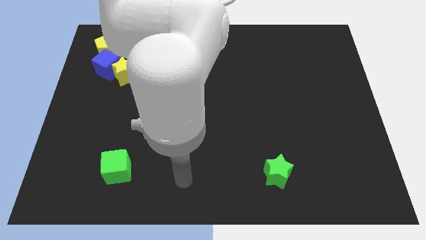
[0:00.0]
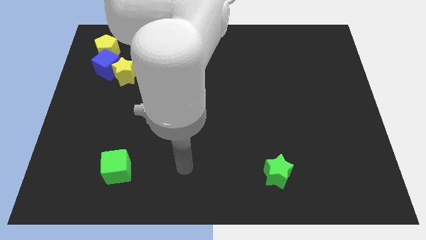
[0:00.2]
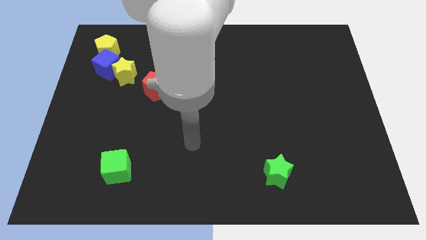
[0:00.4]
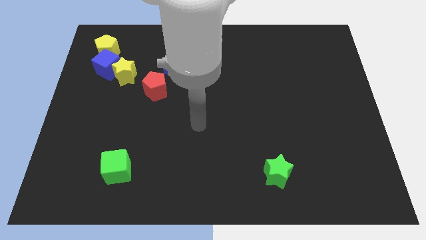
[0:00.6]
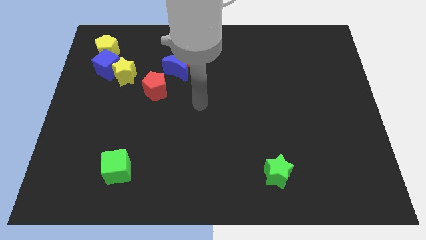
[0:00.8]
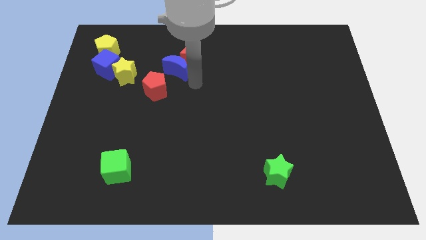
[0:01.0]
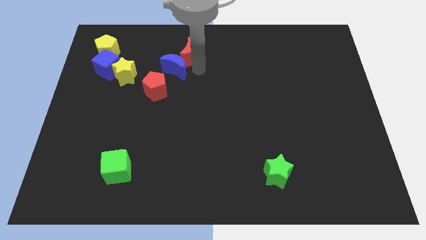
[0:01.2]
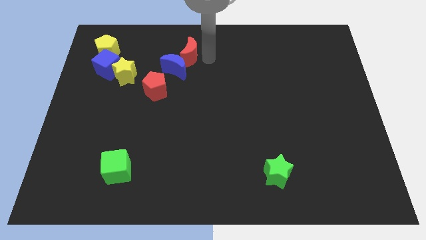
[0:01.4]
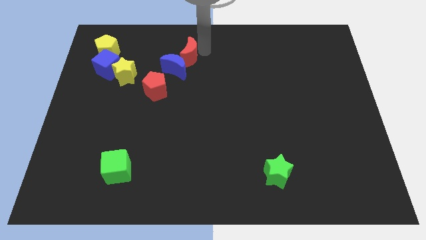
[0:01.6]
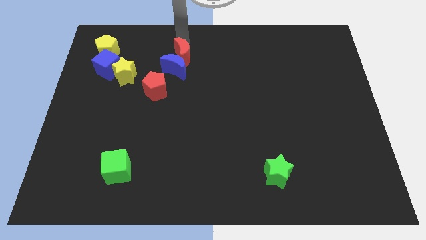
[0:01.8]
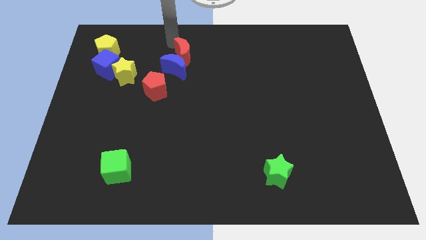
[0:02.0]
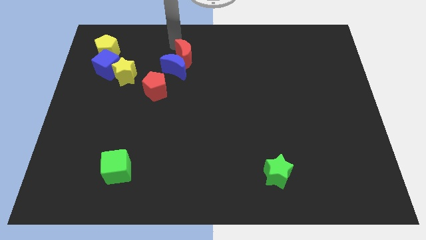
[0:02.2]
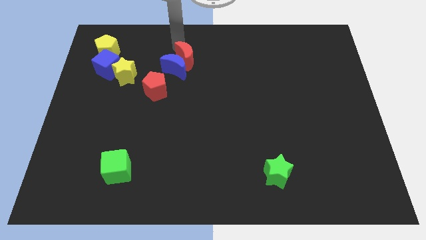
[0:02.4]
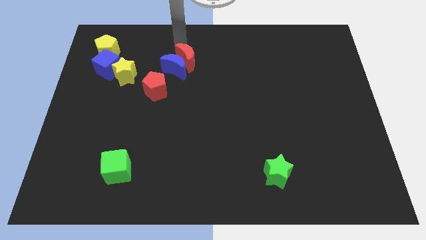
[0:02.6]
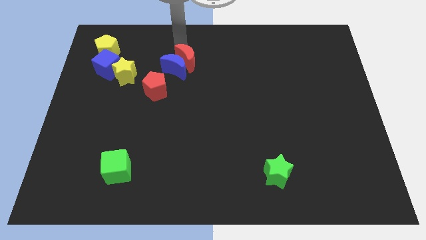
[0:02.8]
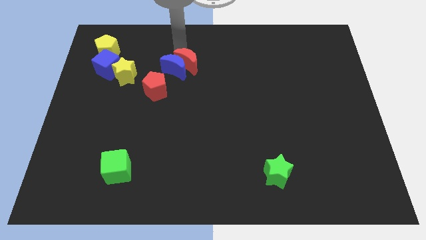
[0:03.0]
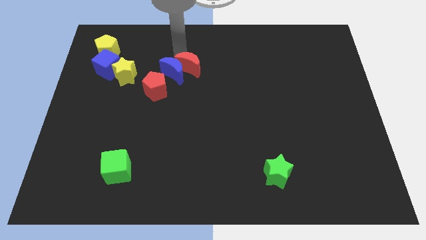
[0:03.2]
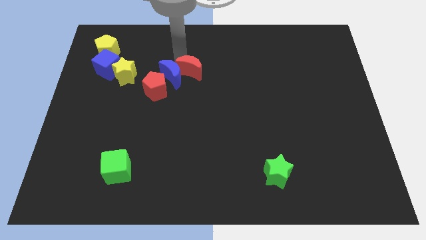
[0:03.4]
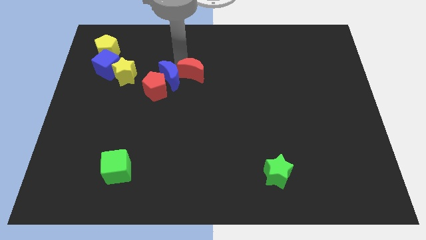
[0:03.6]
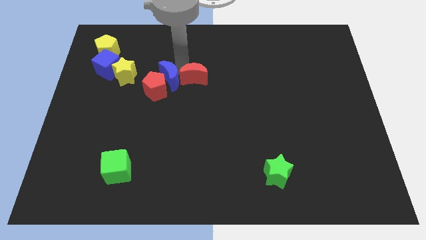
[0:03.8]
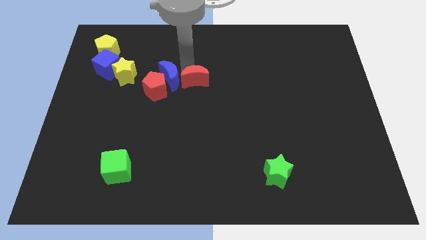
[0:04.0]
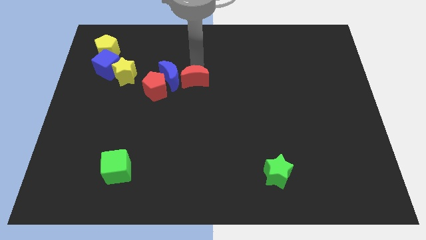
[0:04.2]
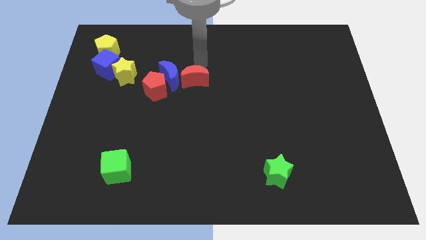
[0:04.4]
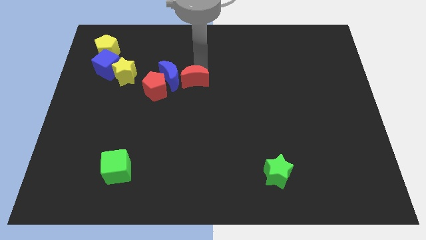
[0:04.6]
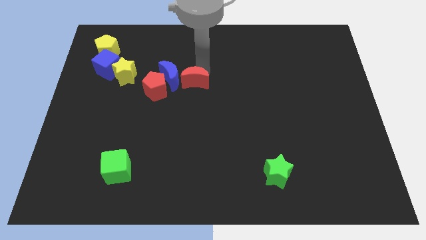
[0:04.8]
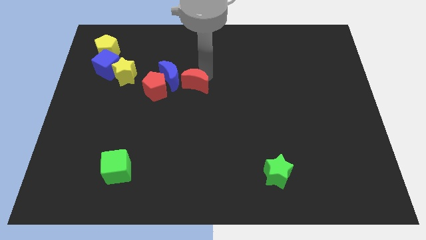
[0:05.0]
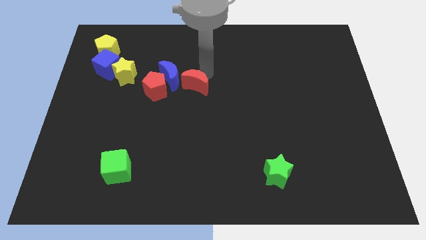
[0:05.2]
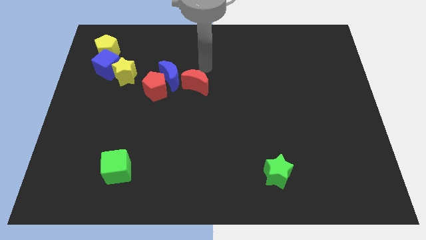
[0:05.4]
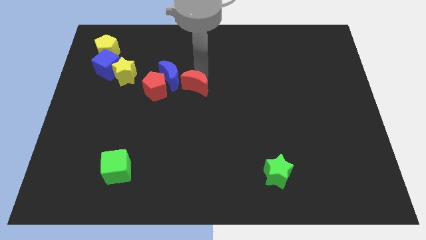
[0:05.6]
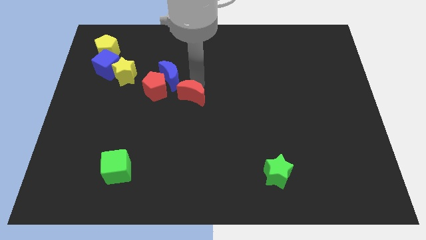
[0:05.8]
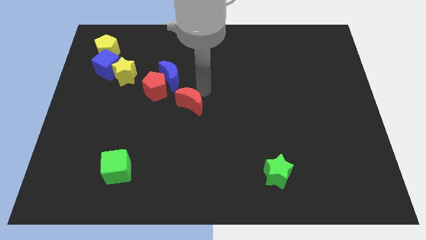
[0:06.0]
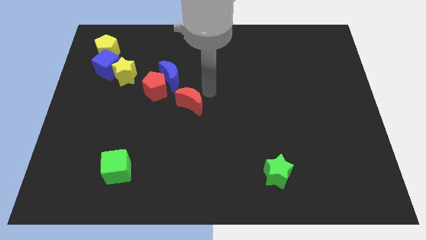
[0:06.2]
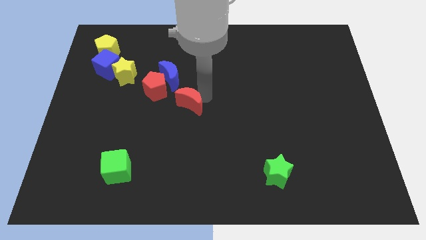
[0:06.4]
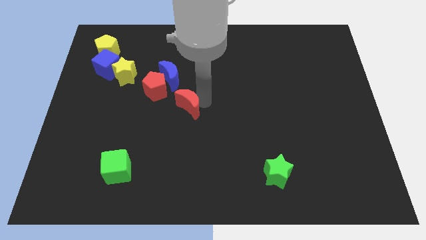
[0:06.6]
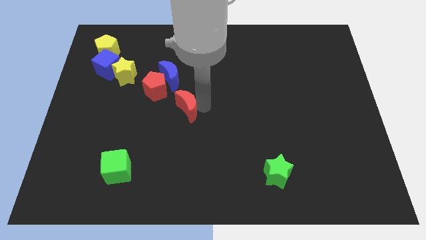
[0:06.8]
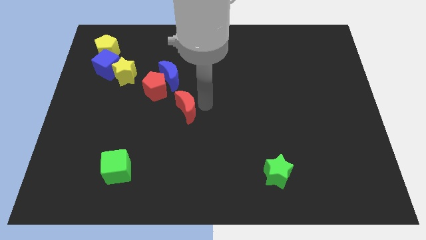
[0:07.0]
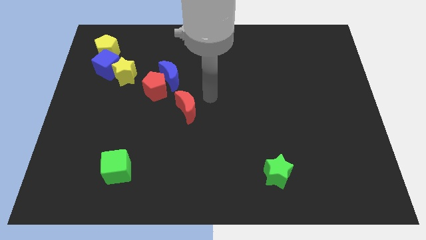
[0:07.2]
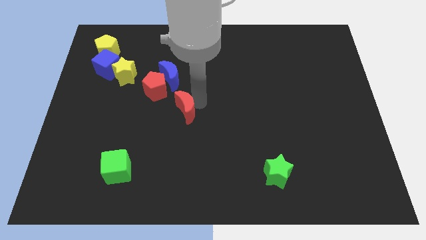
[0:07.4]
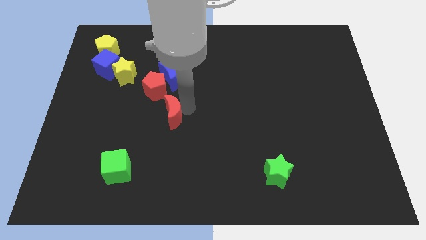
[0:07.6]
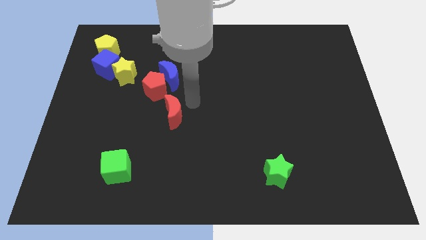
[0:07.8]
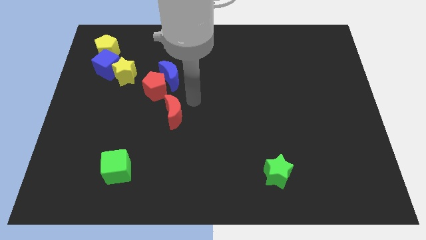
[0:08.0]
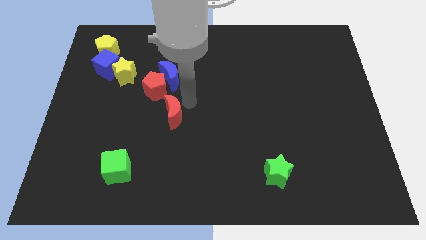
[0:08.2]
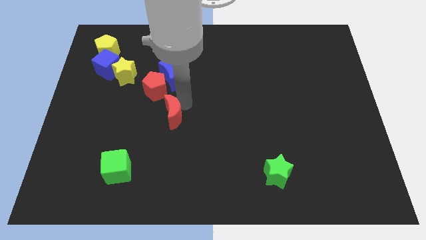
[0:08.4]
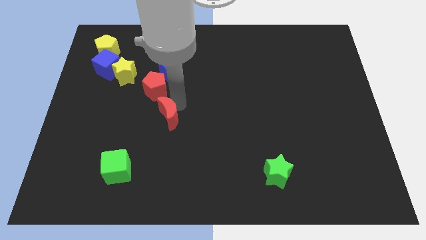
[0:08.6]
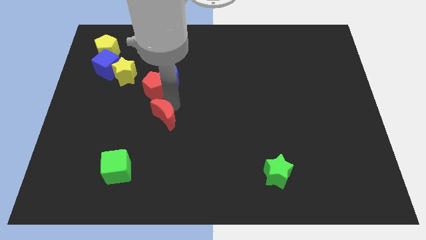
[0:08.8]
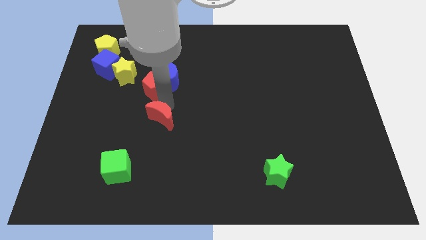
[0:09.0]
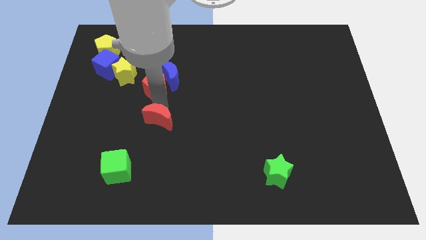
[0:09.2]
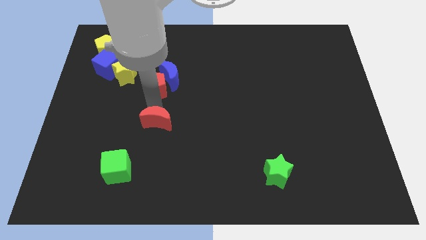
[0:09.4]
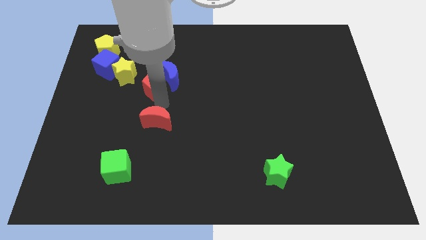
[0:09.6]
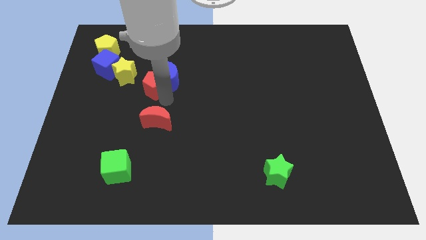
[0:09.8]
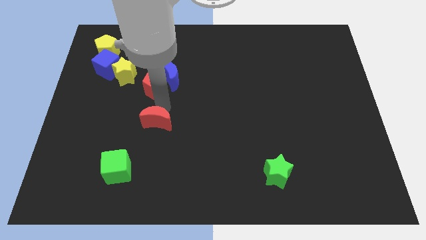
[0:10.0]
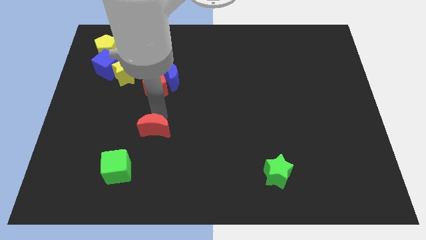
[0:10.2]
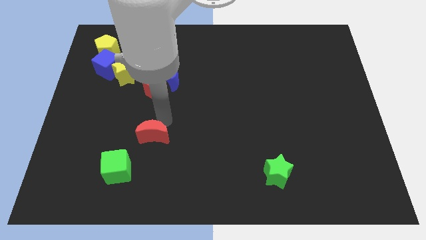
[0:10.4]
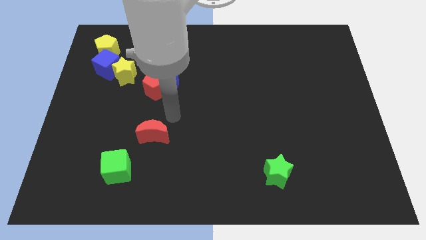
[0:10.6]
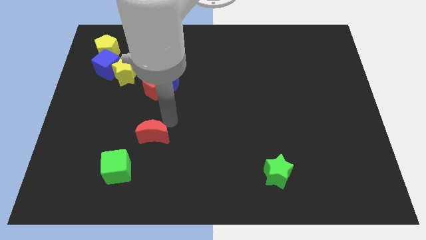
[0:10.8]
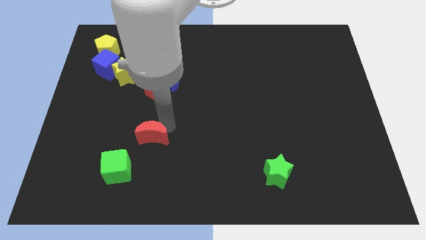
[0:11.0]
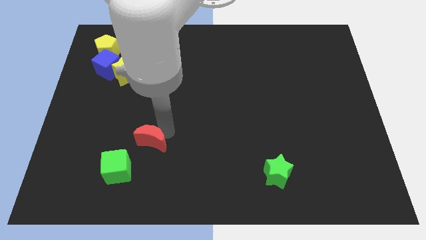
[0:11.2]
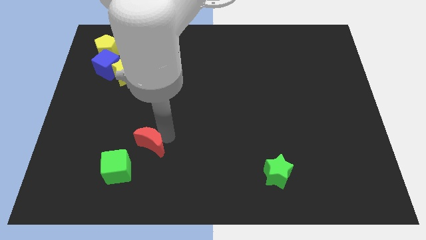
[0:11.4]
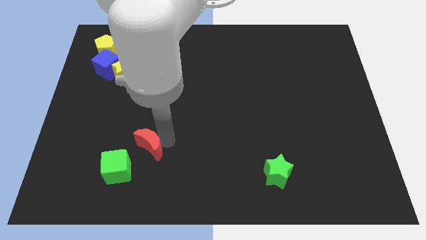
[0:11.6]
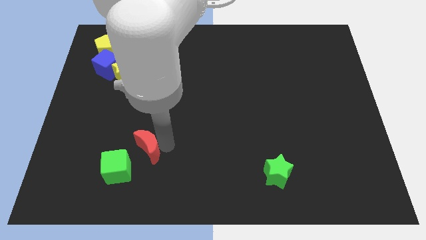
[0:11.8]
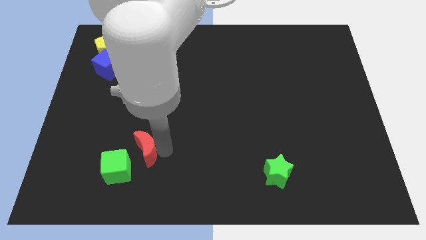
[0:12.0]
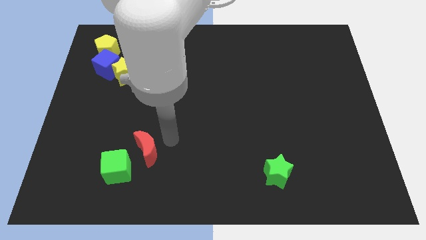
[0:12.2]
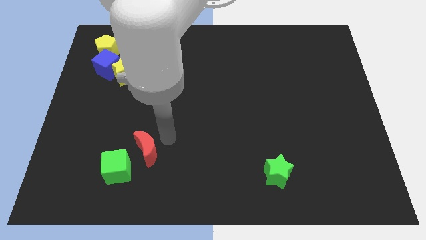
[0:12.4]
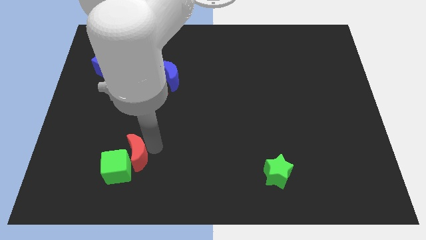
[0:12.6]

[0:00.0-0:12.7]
put the red moon to the green cube

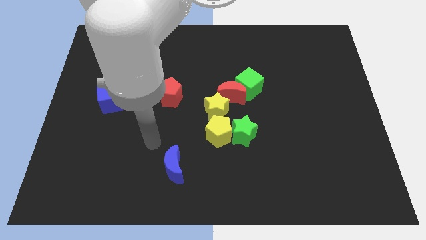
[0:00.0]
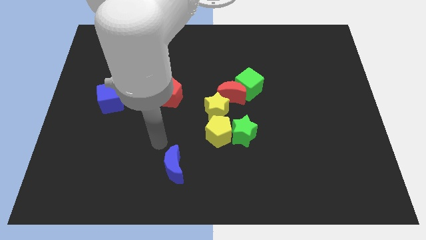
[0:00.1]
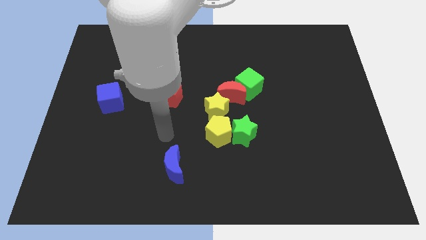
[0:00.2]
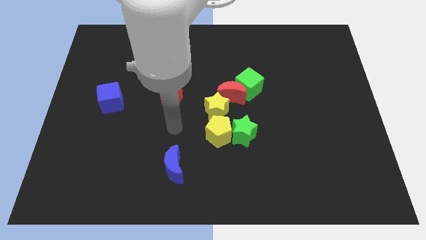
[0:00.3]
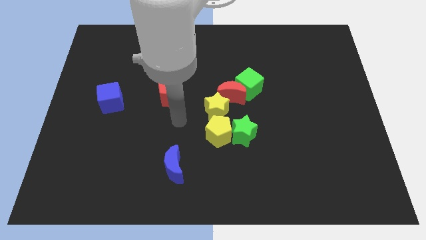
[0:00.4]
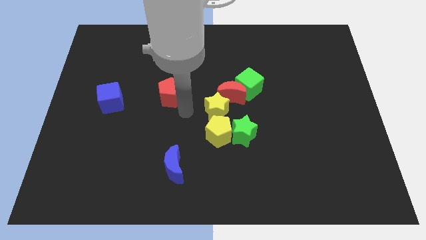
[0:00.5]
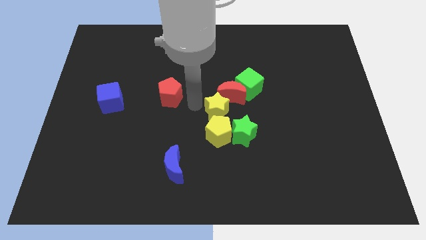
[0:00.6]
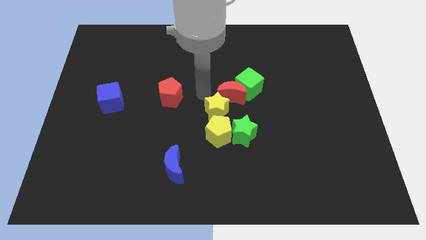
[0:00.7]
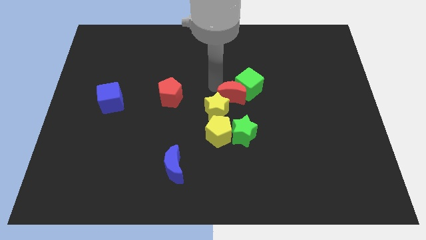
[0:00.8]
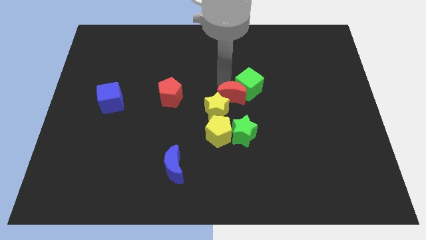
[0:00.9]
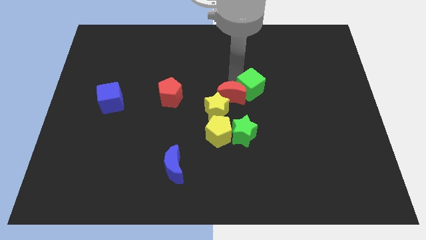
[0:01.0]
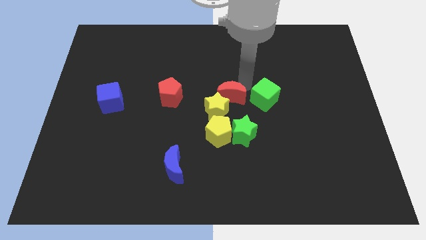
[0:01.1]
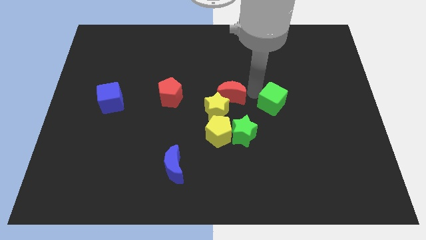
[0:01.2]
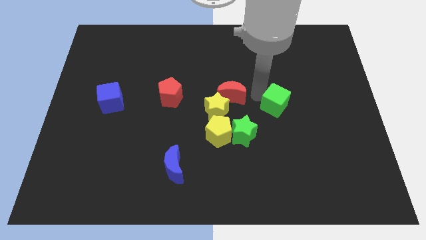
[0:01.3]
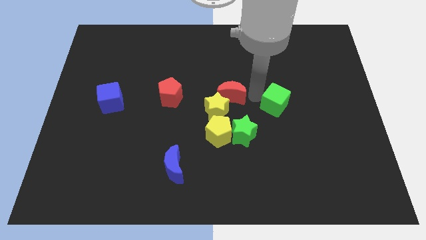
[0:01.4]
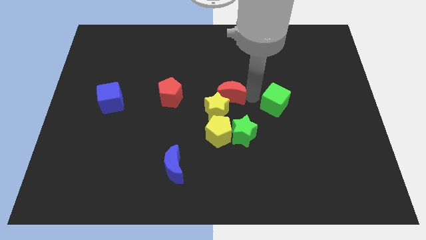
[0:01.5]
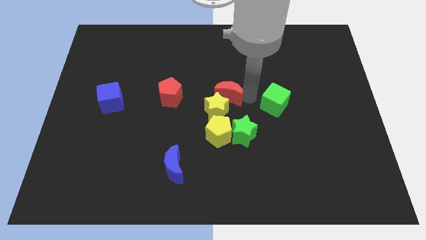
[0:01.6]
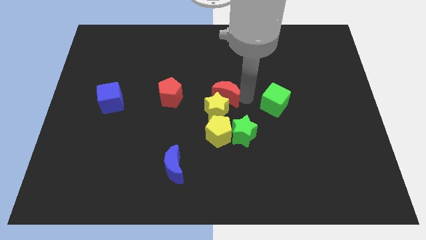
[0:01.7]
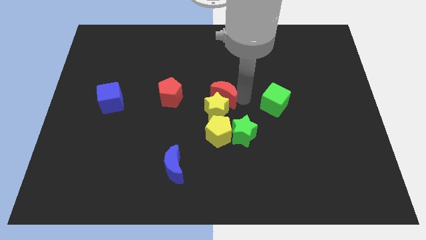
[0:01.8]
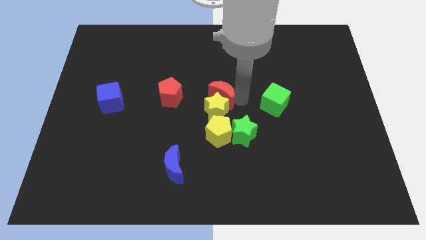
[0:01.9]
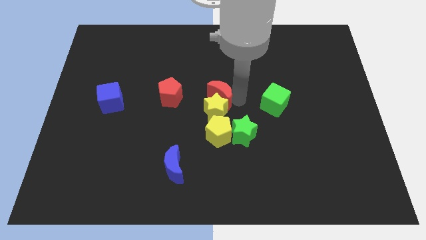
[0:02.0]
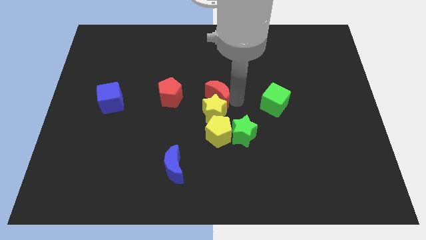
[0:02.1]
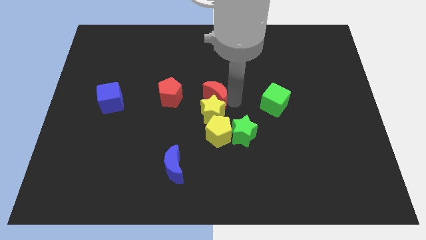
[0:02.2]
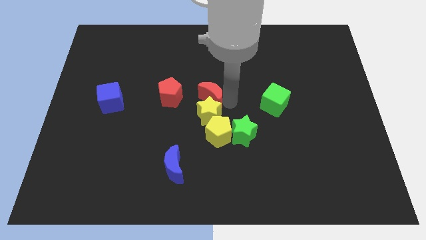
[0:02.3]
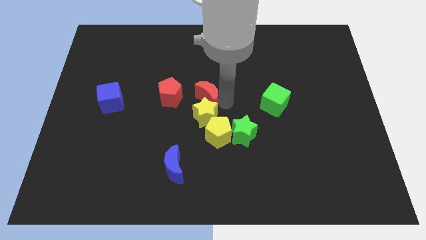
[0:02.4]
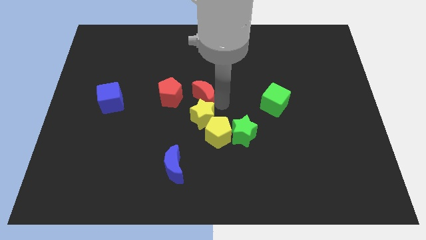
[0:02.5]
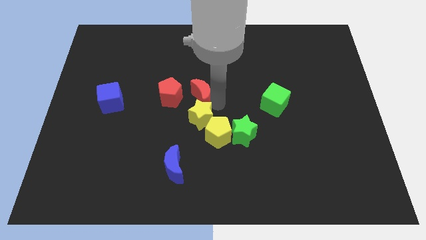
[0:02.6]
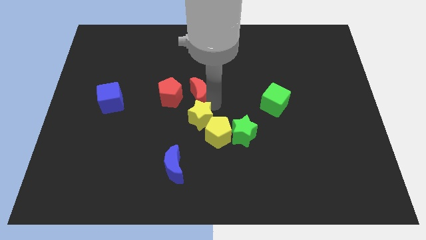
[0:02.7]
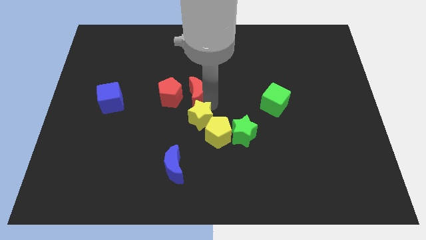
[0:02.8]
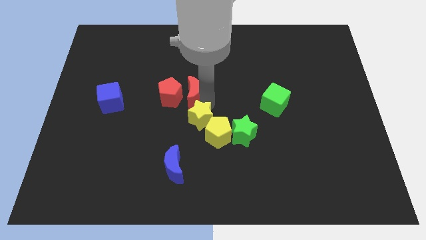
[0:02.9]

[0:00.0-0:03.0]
move the red moon towards the red pentagon
